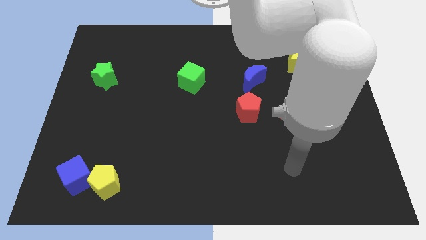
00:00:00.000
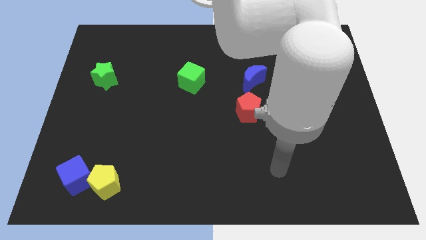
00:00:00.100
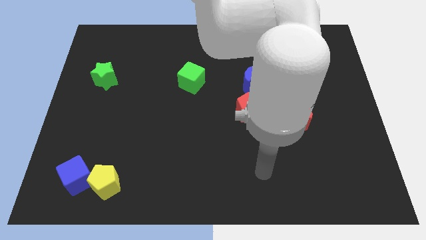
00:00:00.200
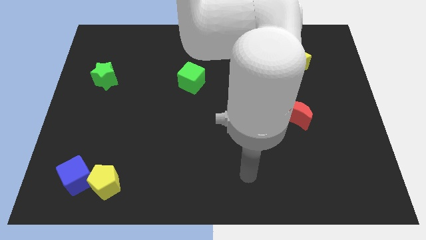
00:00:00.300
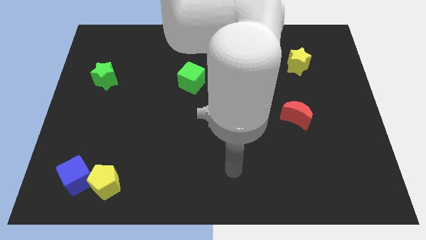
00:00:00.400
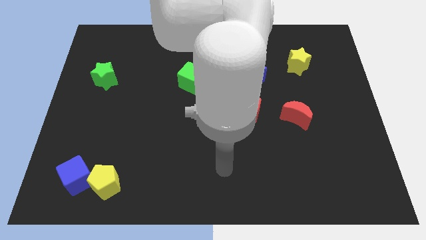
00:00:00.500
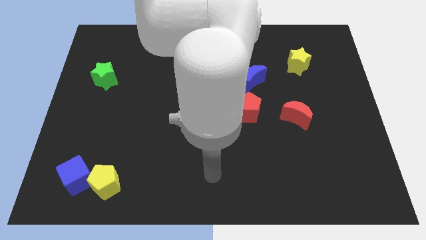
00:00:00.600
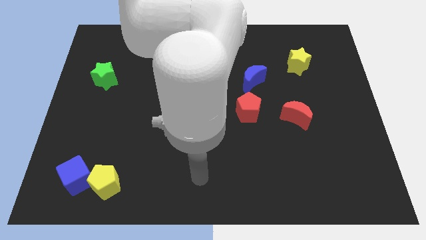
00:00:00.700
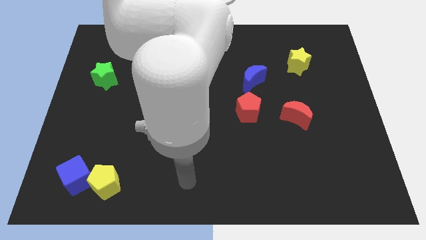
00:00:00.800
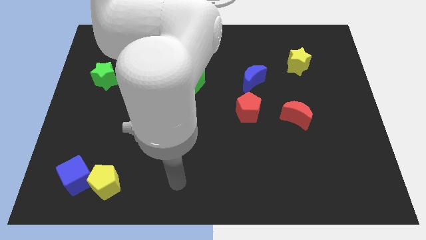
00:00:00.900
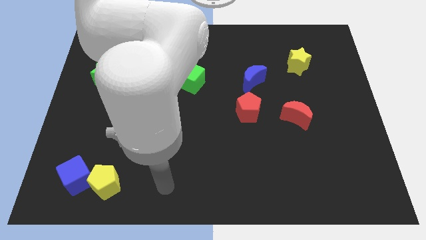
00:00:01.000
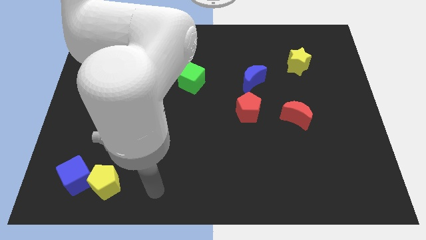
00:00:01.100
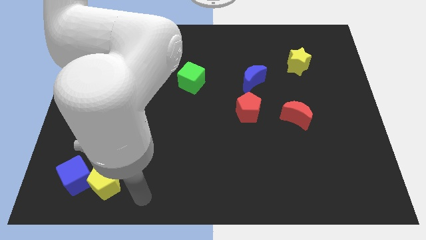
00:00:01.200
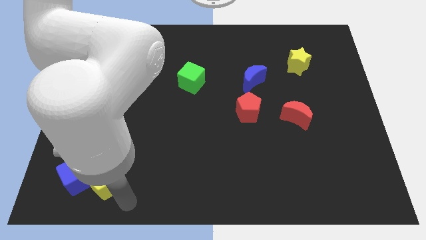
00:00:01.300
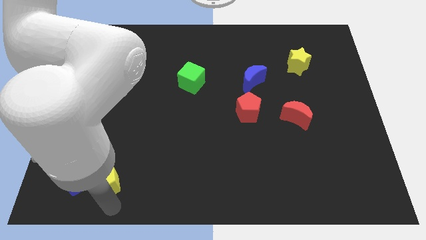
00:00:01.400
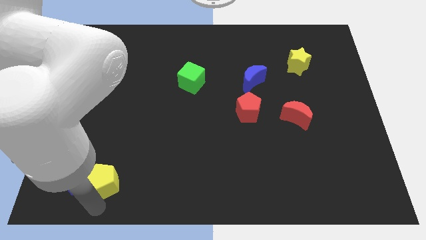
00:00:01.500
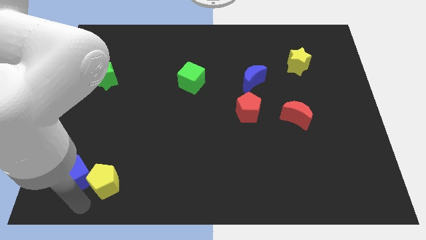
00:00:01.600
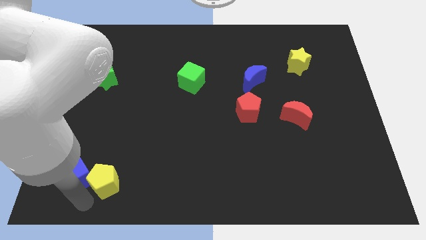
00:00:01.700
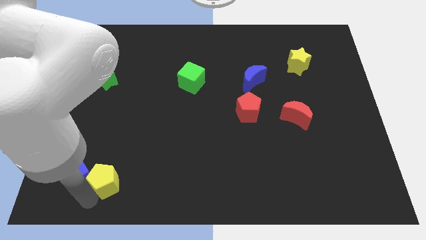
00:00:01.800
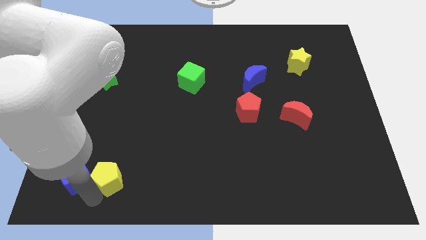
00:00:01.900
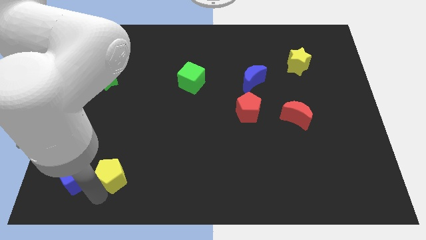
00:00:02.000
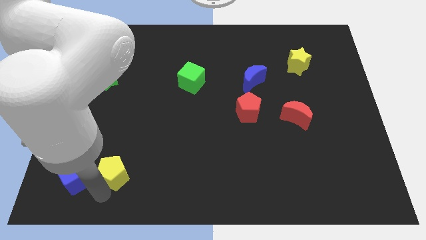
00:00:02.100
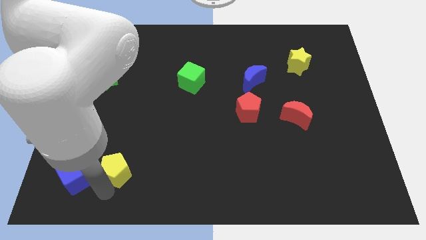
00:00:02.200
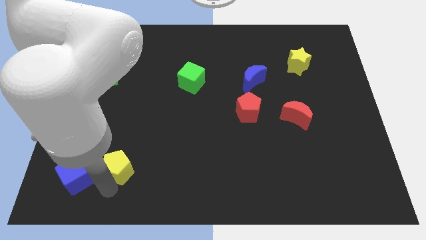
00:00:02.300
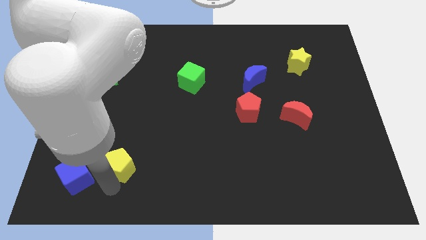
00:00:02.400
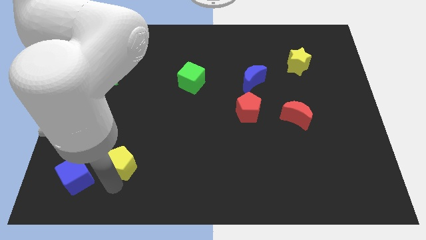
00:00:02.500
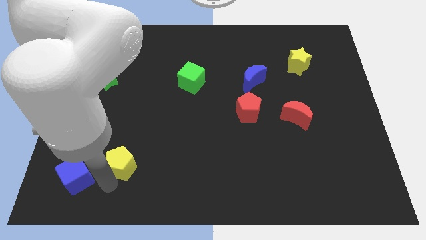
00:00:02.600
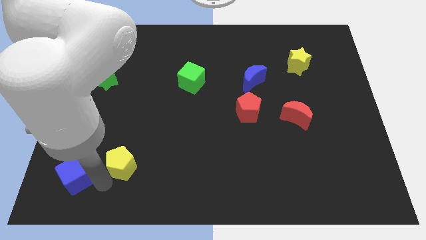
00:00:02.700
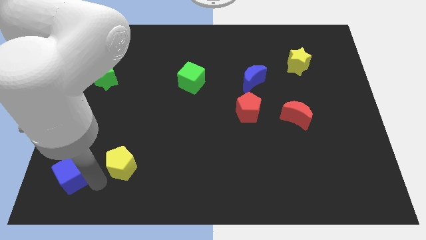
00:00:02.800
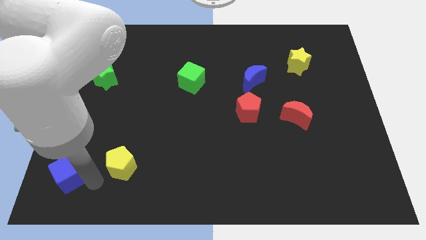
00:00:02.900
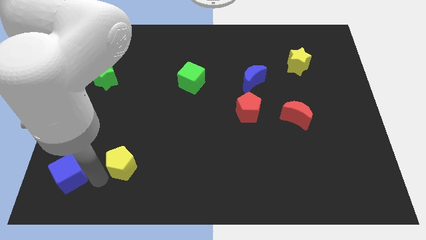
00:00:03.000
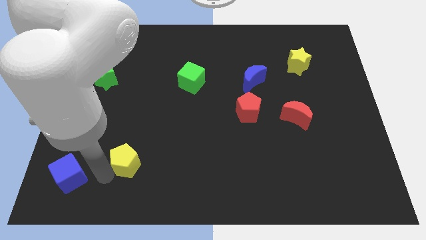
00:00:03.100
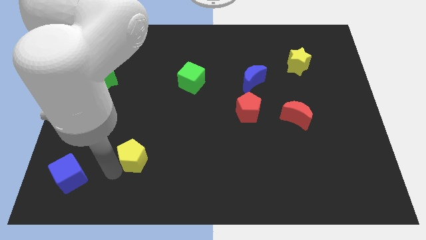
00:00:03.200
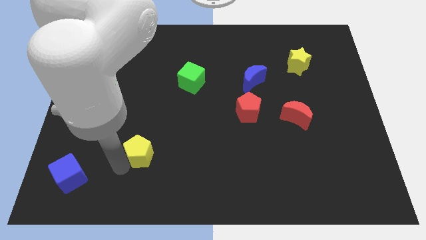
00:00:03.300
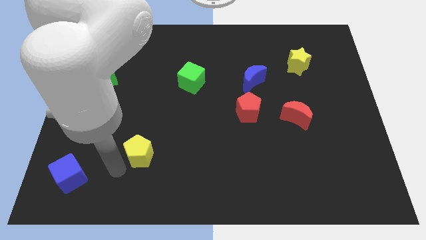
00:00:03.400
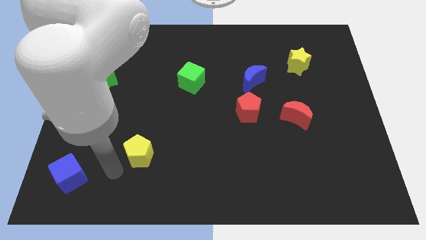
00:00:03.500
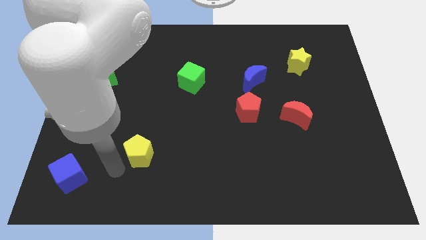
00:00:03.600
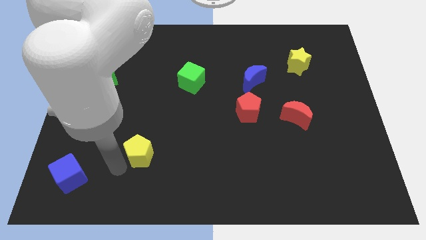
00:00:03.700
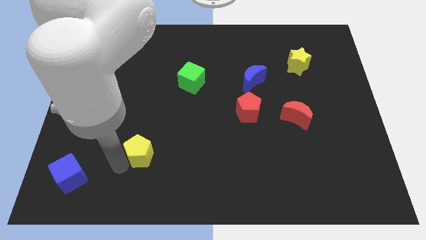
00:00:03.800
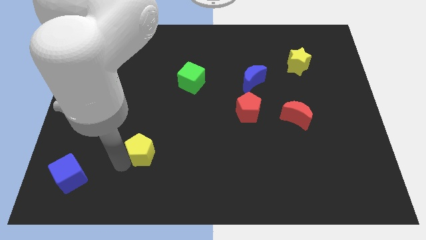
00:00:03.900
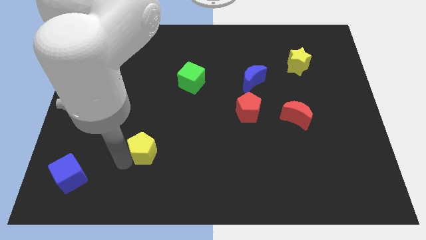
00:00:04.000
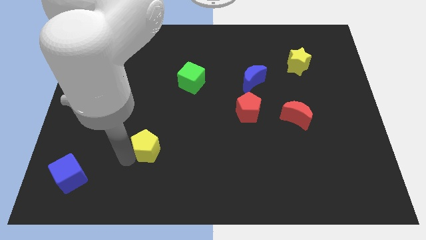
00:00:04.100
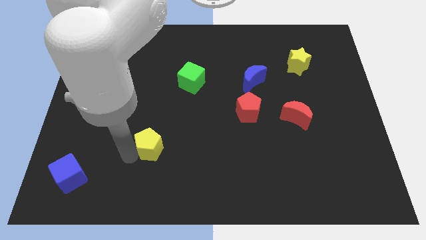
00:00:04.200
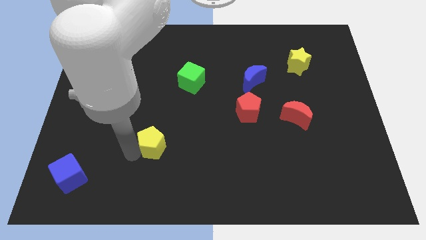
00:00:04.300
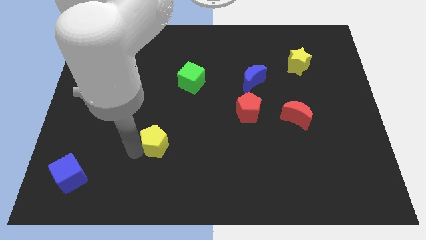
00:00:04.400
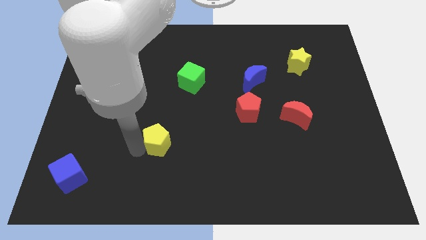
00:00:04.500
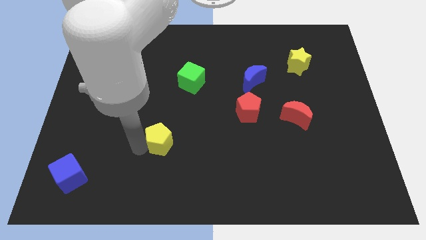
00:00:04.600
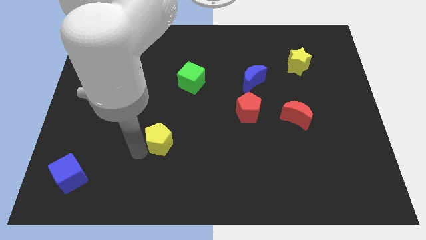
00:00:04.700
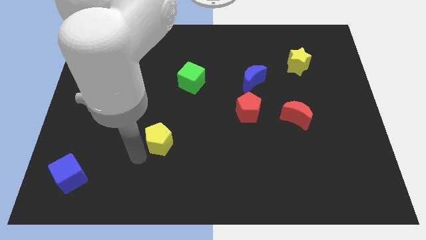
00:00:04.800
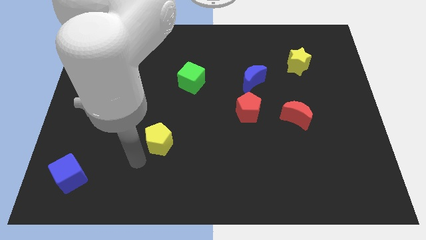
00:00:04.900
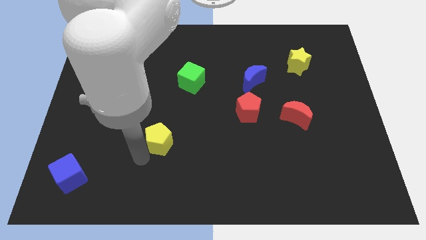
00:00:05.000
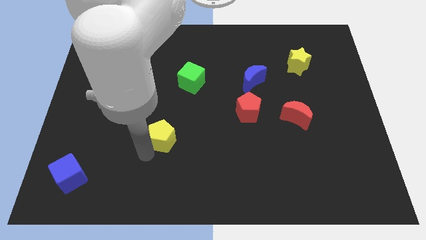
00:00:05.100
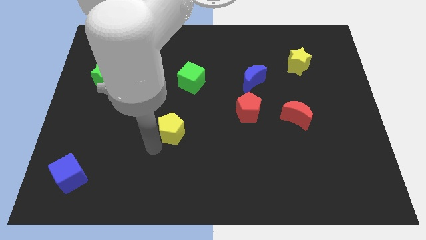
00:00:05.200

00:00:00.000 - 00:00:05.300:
slide the yellow pentagon to the center

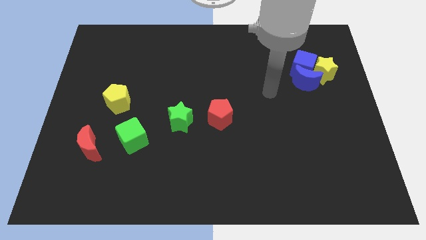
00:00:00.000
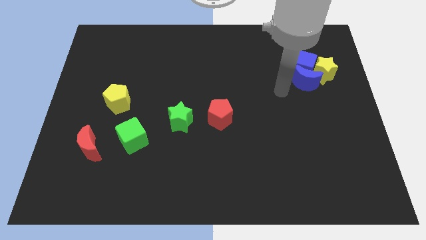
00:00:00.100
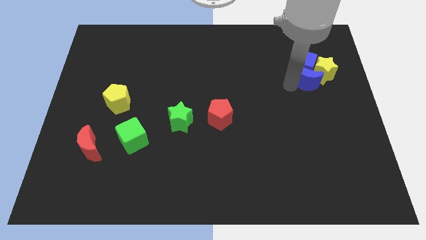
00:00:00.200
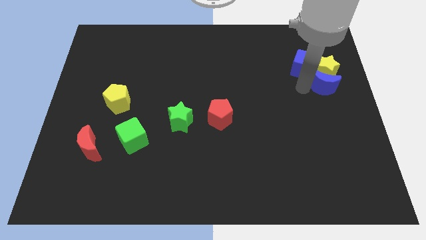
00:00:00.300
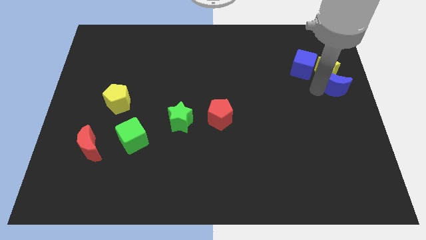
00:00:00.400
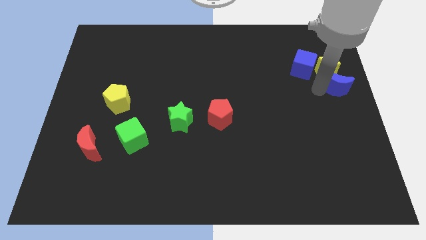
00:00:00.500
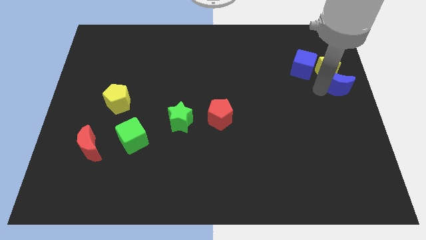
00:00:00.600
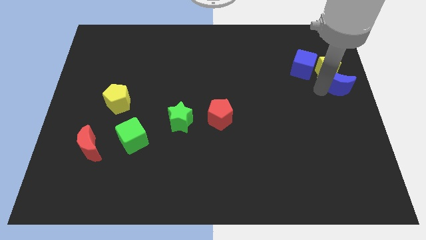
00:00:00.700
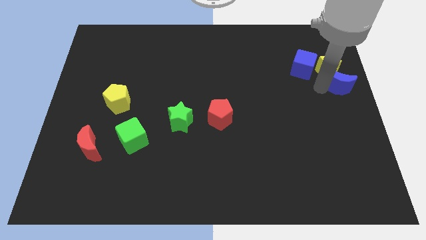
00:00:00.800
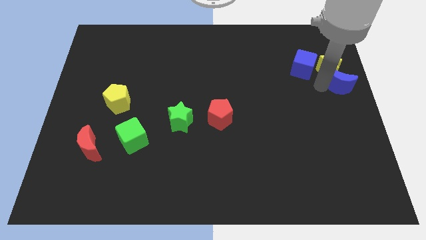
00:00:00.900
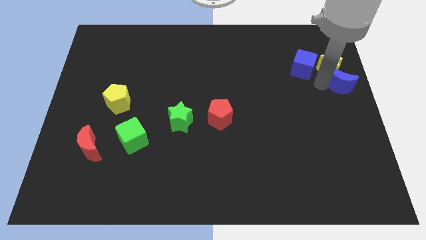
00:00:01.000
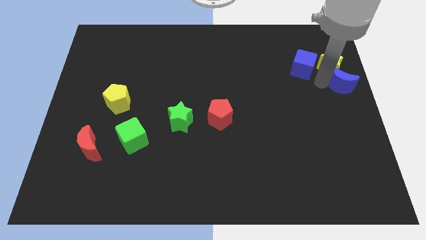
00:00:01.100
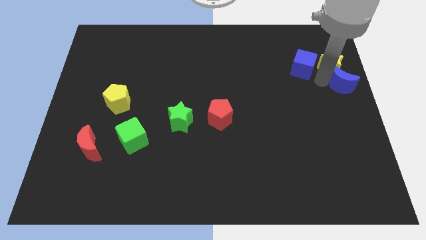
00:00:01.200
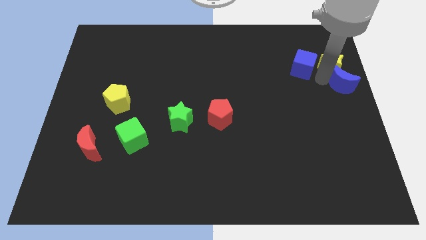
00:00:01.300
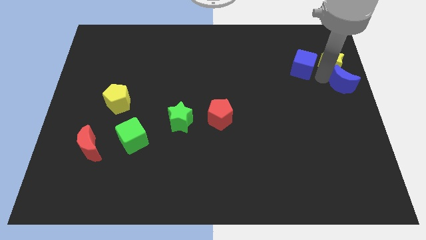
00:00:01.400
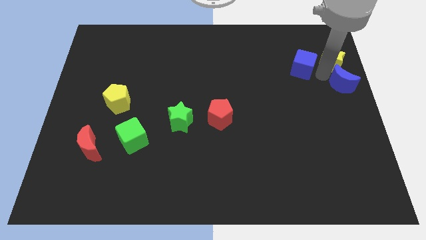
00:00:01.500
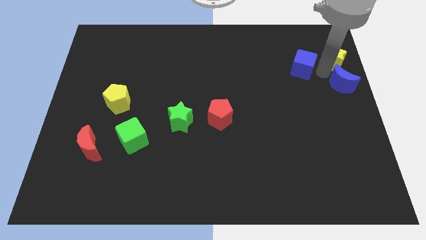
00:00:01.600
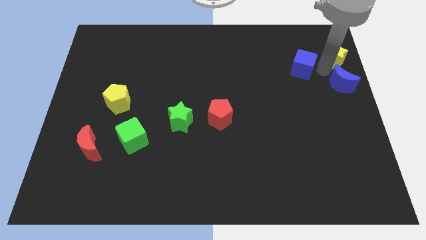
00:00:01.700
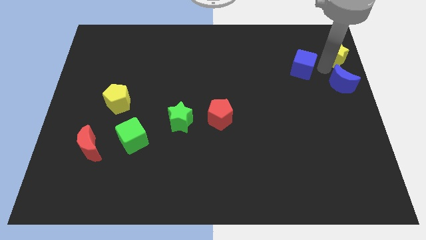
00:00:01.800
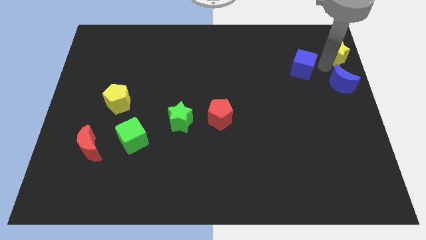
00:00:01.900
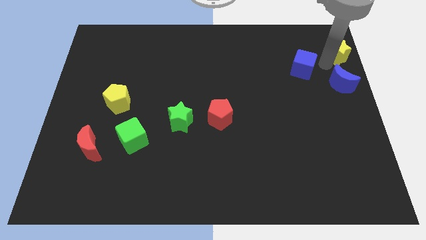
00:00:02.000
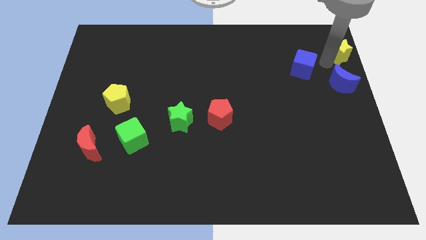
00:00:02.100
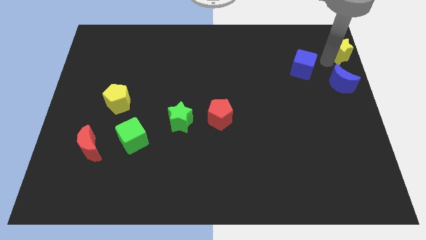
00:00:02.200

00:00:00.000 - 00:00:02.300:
put the yellow star to the top right corner
